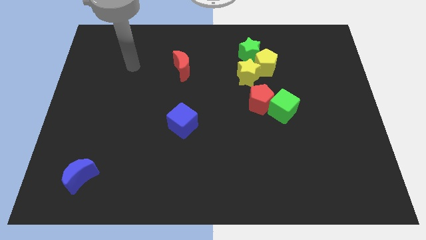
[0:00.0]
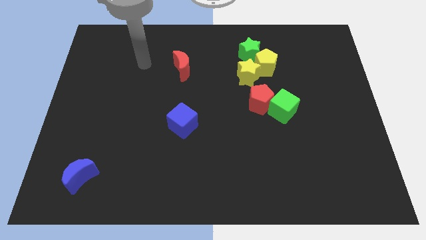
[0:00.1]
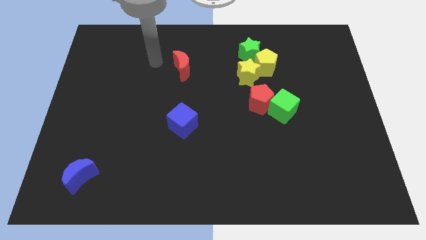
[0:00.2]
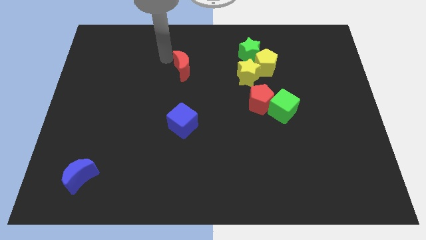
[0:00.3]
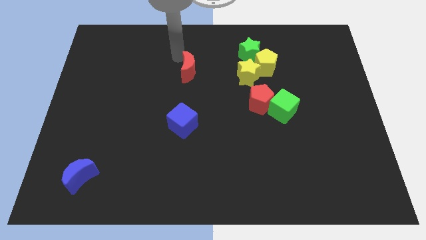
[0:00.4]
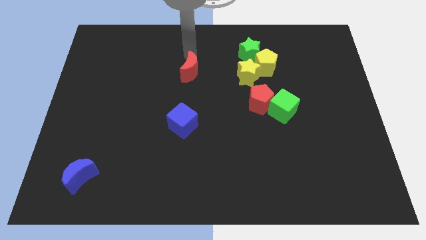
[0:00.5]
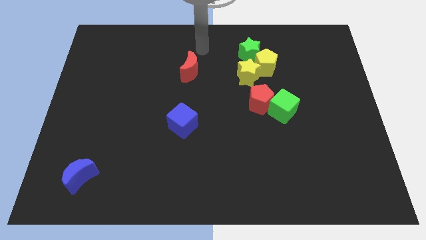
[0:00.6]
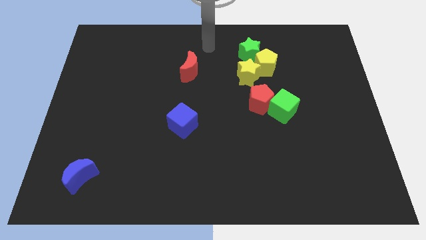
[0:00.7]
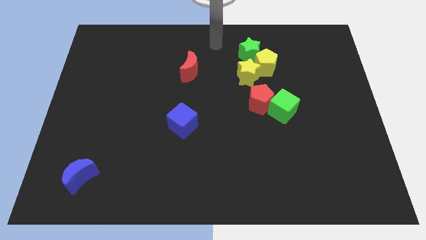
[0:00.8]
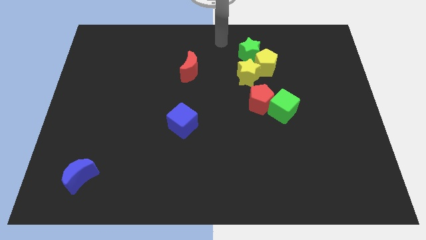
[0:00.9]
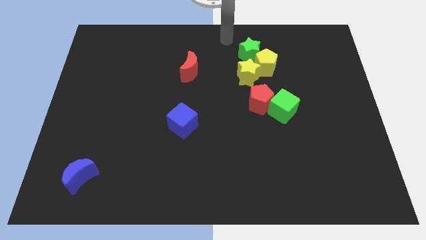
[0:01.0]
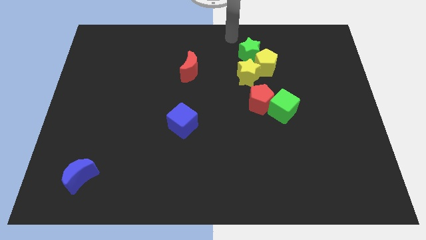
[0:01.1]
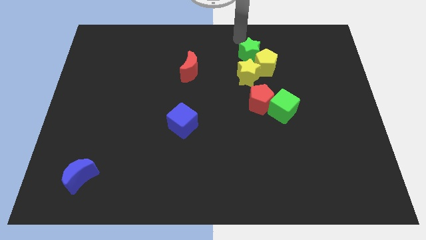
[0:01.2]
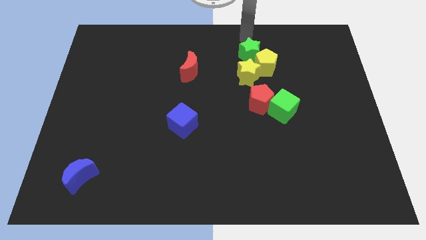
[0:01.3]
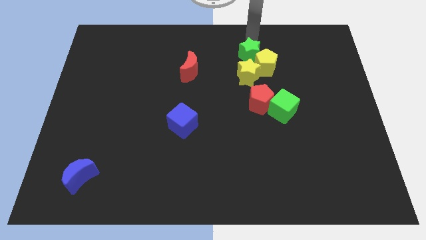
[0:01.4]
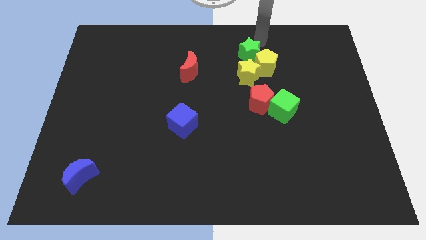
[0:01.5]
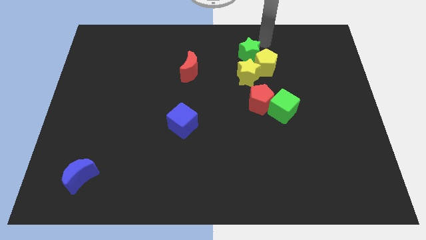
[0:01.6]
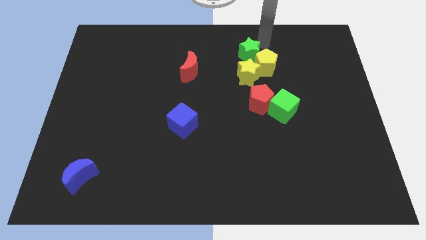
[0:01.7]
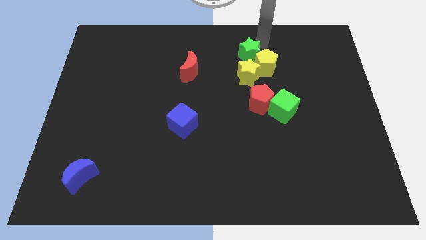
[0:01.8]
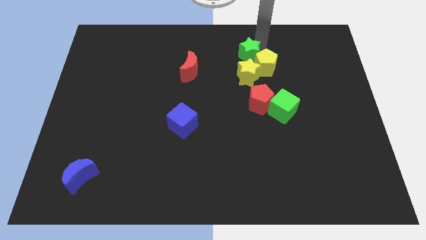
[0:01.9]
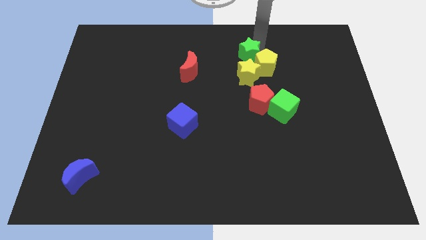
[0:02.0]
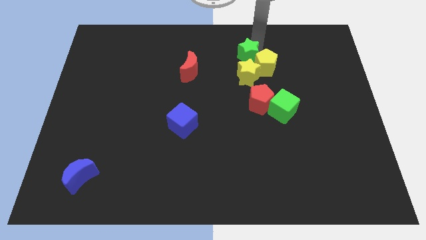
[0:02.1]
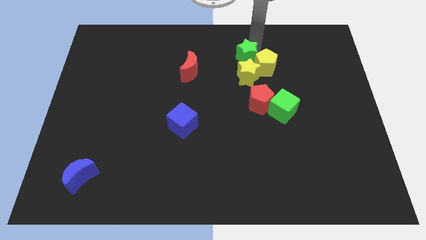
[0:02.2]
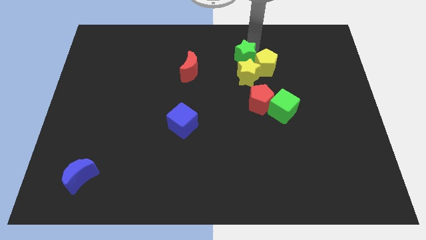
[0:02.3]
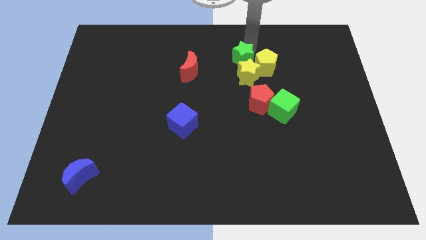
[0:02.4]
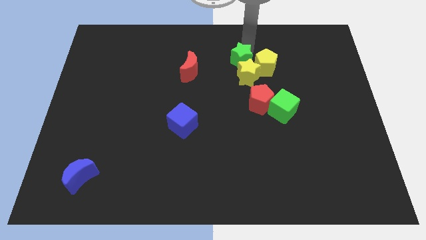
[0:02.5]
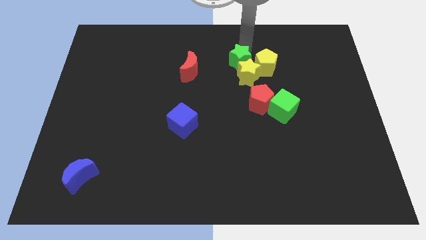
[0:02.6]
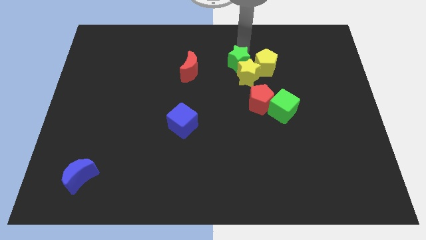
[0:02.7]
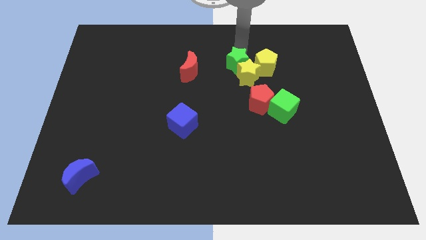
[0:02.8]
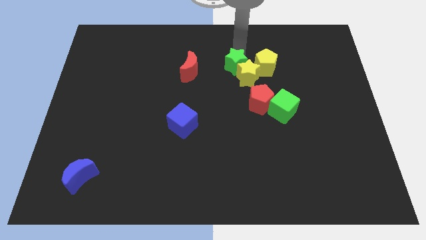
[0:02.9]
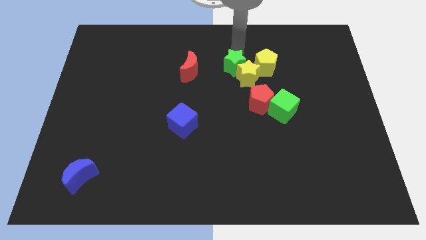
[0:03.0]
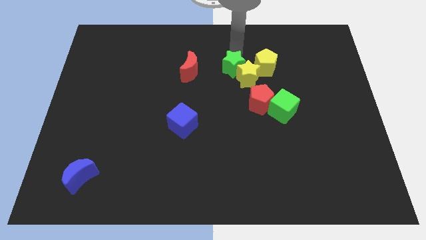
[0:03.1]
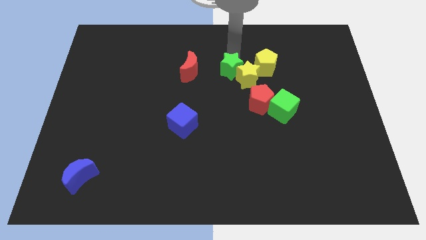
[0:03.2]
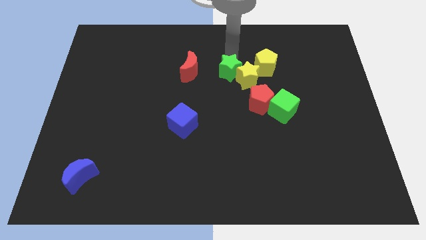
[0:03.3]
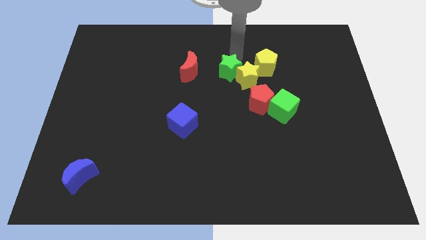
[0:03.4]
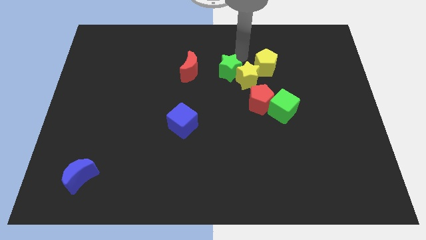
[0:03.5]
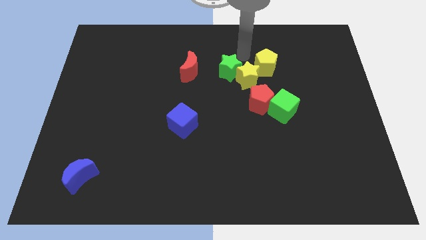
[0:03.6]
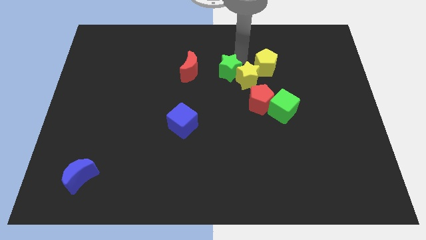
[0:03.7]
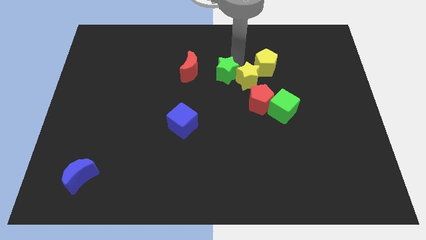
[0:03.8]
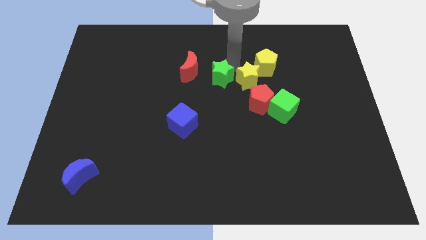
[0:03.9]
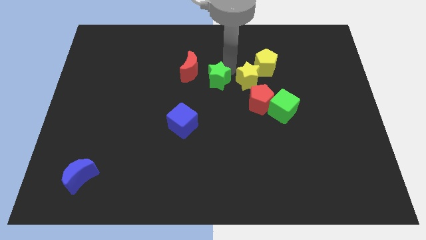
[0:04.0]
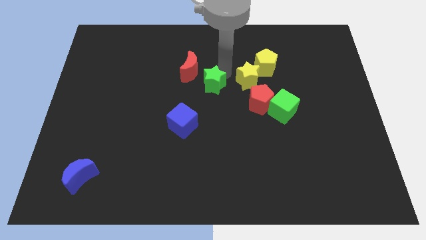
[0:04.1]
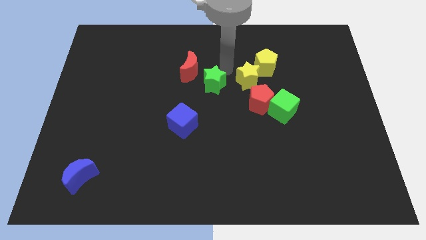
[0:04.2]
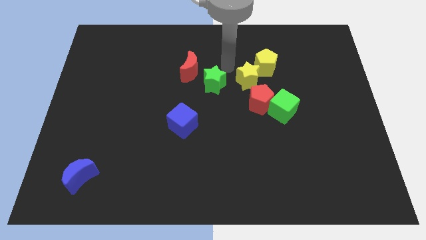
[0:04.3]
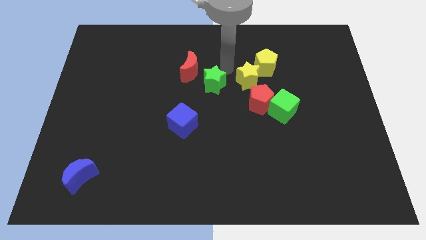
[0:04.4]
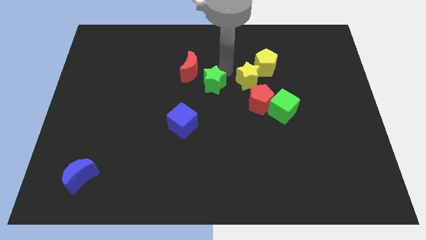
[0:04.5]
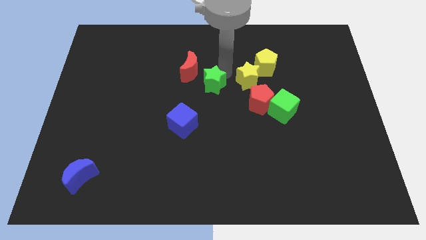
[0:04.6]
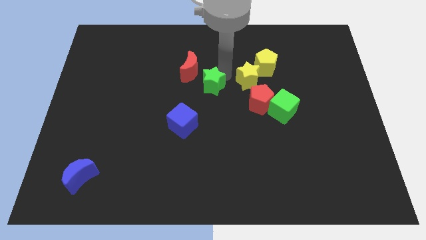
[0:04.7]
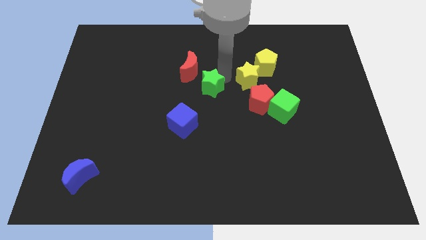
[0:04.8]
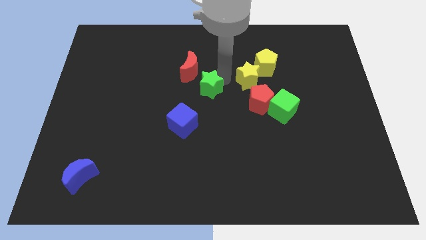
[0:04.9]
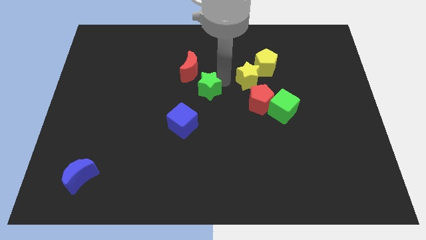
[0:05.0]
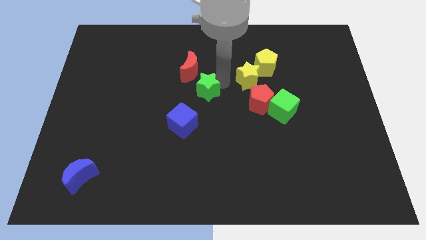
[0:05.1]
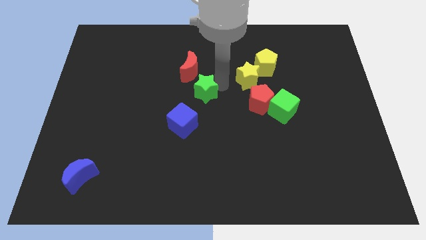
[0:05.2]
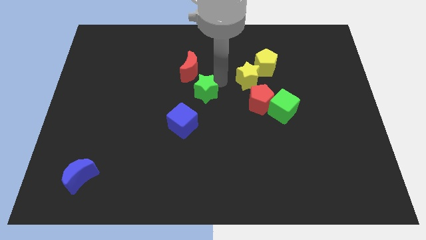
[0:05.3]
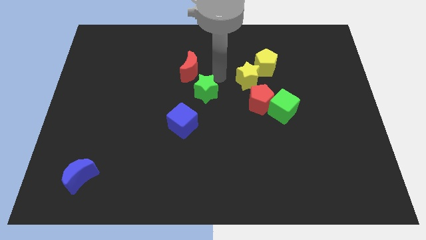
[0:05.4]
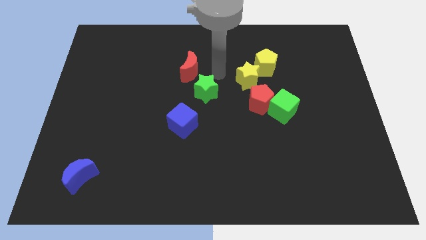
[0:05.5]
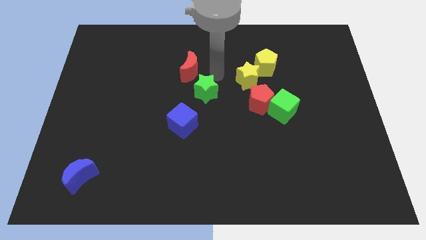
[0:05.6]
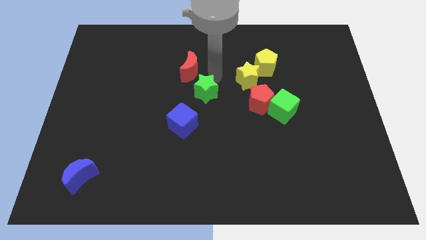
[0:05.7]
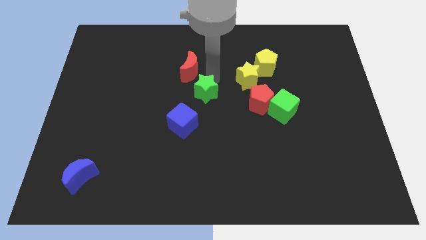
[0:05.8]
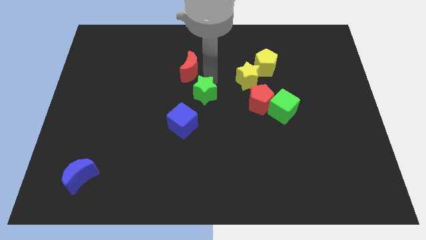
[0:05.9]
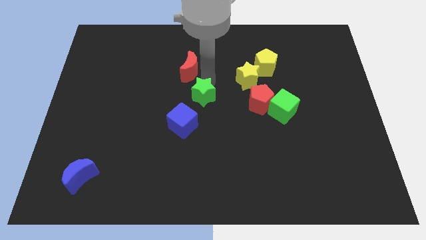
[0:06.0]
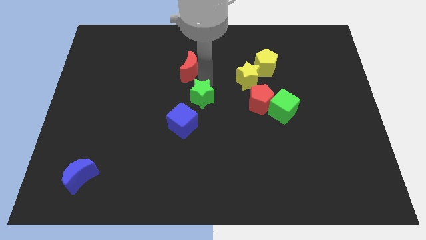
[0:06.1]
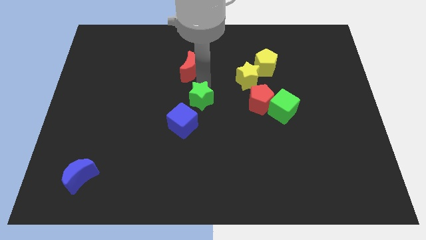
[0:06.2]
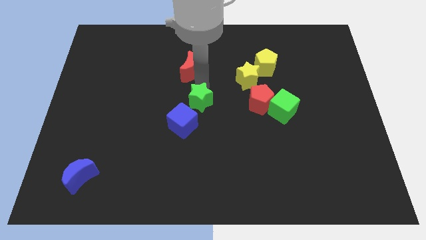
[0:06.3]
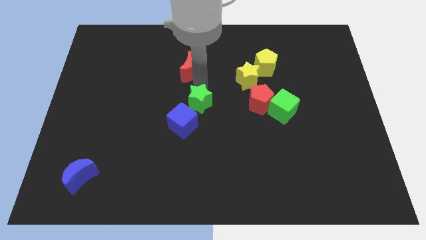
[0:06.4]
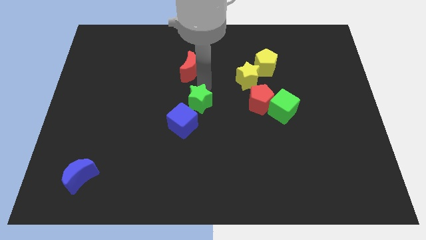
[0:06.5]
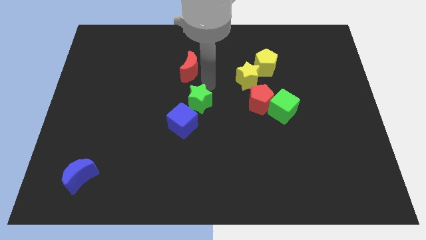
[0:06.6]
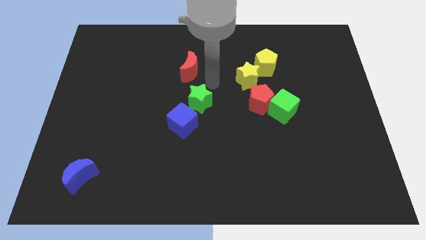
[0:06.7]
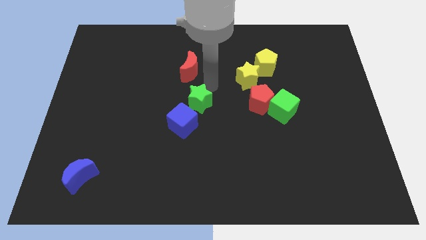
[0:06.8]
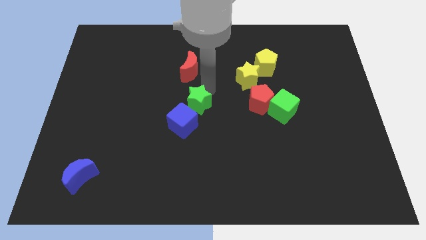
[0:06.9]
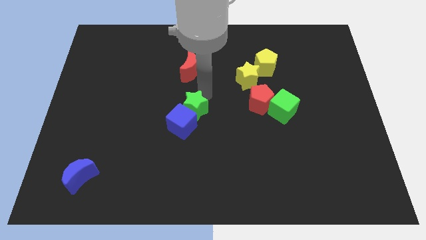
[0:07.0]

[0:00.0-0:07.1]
slide the green star towards the blue cube
